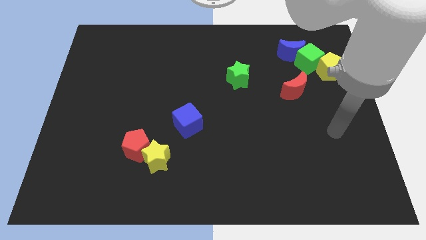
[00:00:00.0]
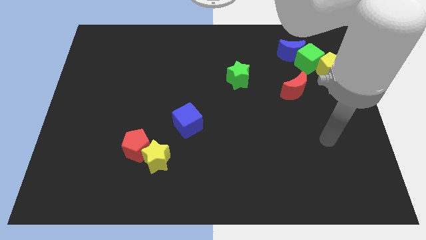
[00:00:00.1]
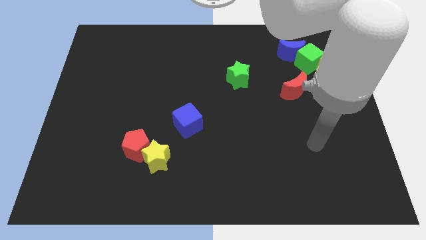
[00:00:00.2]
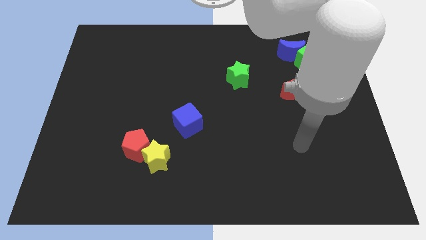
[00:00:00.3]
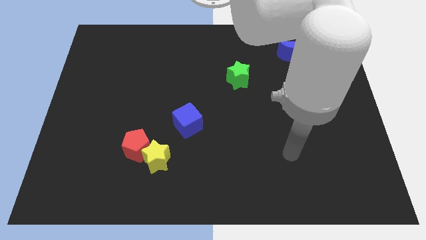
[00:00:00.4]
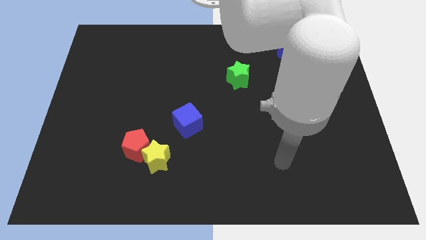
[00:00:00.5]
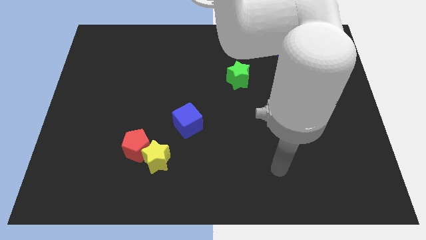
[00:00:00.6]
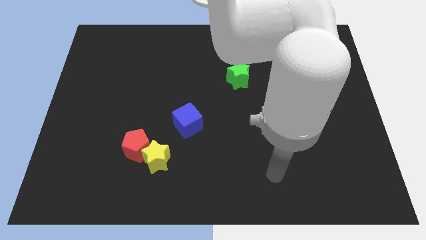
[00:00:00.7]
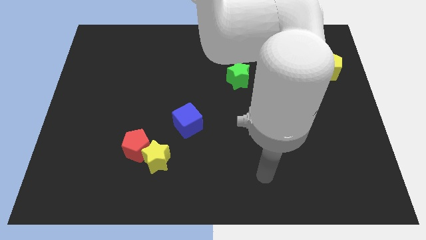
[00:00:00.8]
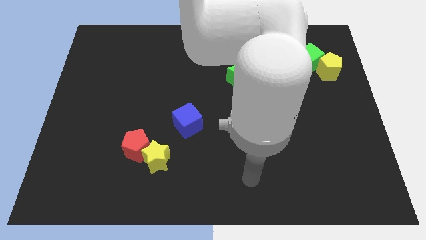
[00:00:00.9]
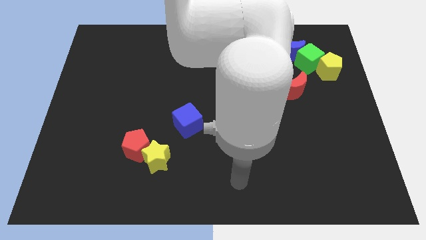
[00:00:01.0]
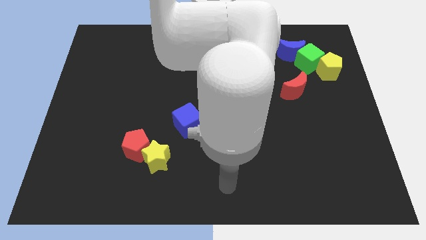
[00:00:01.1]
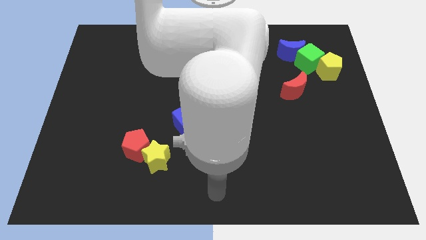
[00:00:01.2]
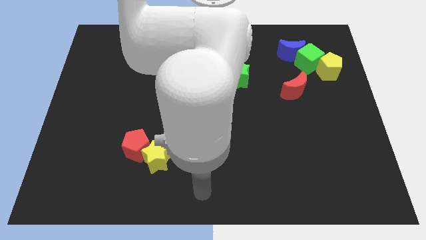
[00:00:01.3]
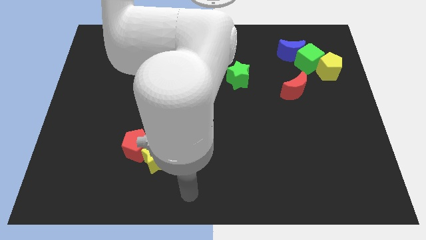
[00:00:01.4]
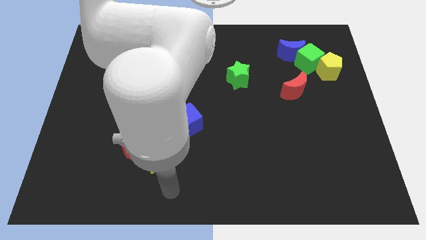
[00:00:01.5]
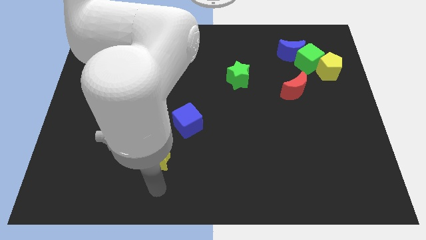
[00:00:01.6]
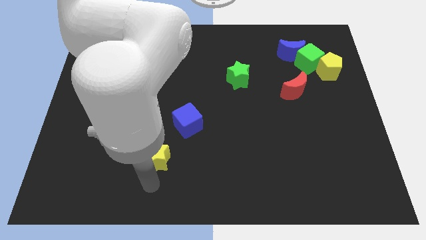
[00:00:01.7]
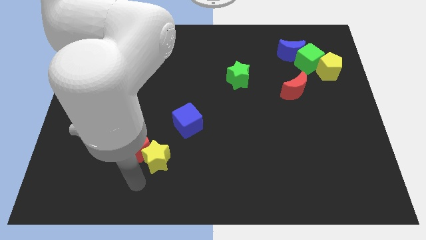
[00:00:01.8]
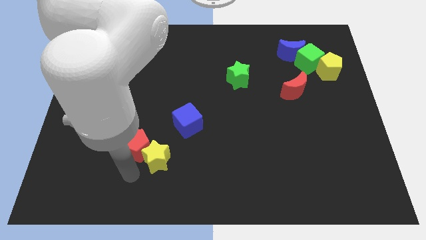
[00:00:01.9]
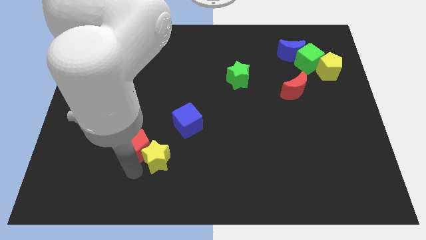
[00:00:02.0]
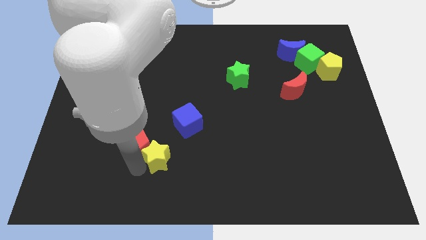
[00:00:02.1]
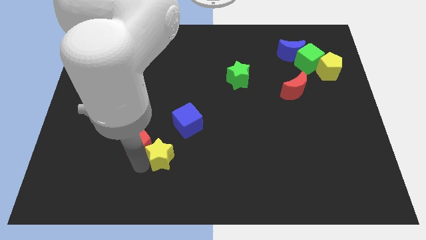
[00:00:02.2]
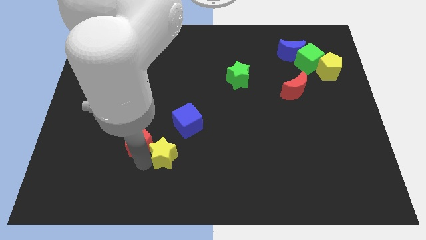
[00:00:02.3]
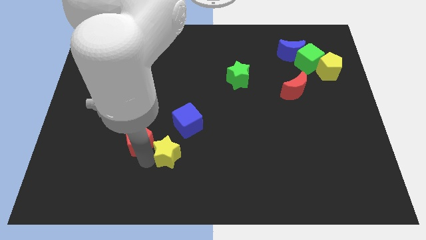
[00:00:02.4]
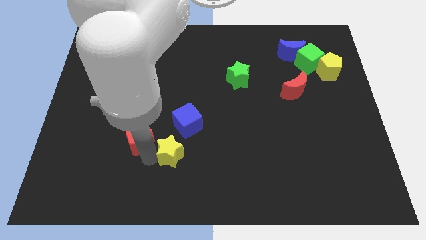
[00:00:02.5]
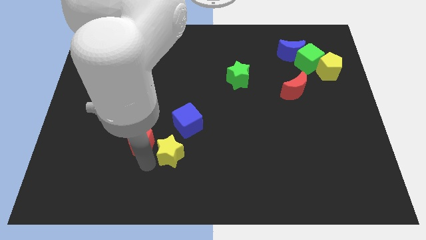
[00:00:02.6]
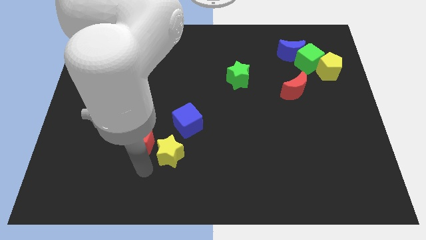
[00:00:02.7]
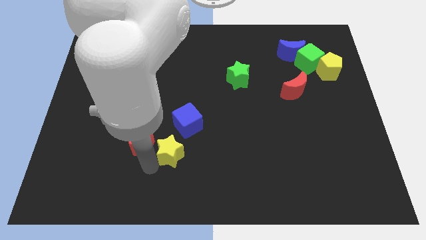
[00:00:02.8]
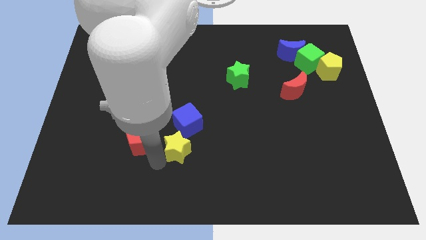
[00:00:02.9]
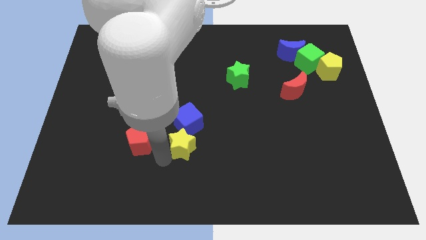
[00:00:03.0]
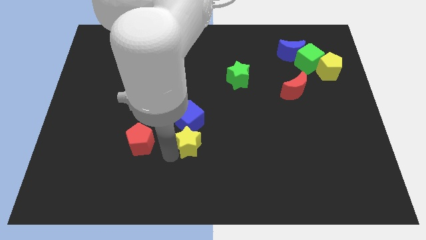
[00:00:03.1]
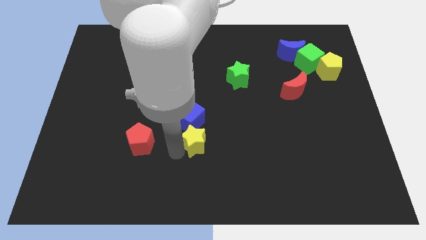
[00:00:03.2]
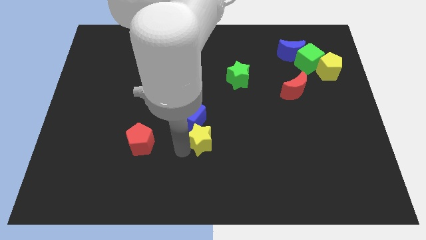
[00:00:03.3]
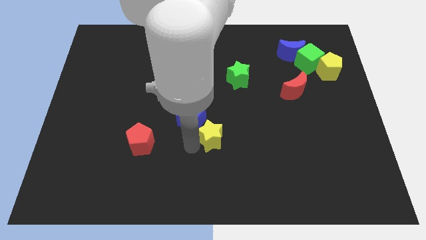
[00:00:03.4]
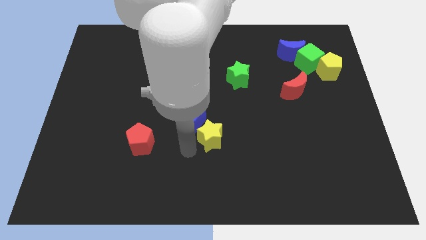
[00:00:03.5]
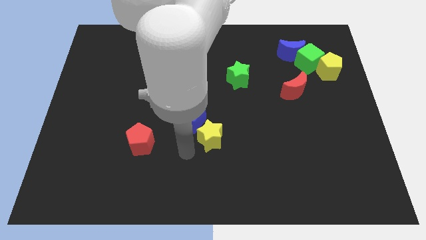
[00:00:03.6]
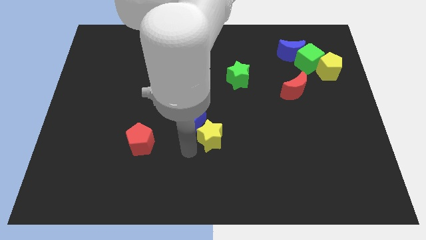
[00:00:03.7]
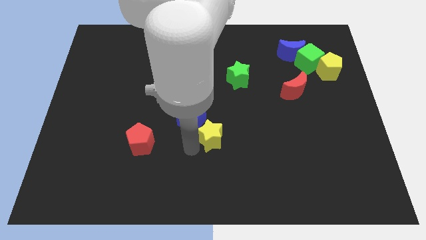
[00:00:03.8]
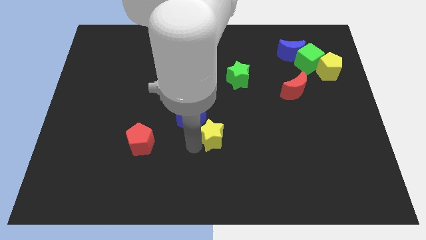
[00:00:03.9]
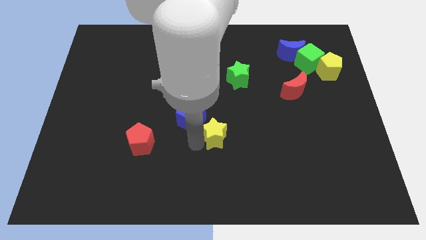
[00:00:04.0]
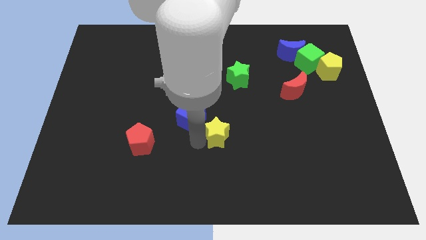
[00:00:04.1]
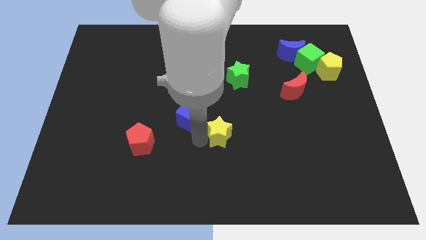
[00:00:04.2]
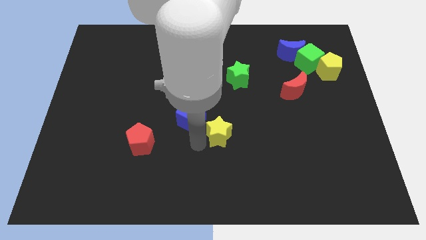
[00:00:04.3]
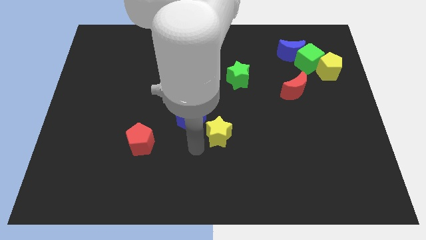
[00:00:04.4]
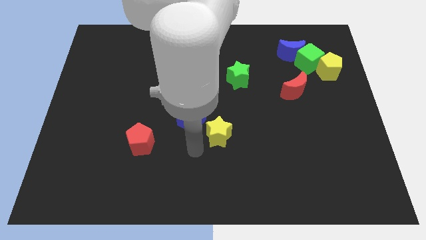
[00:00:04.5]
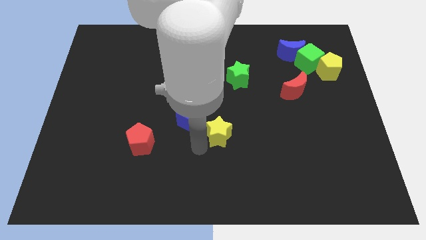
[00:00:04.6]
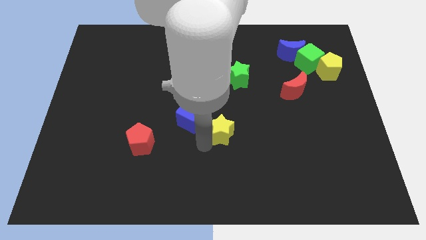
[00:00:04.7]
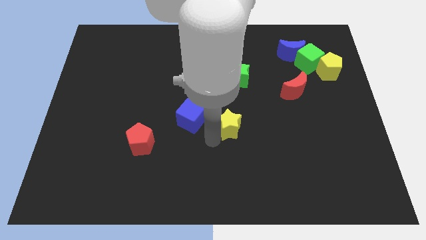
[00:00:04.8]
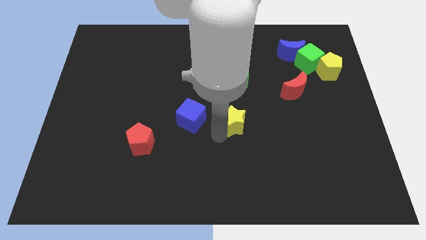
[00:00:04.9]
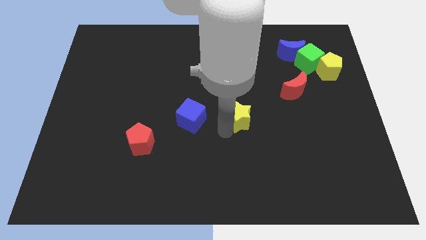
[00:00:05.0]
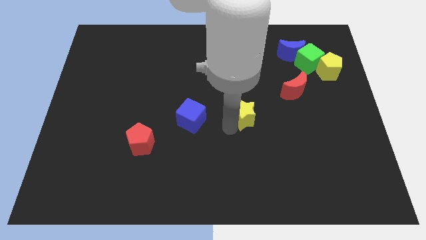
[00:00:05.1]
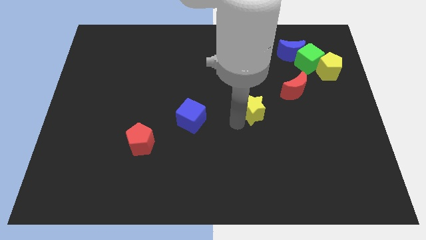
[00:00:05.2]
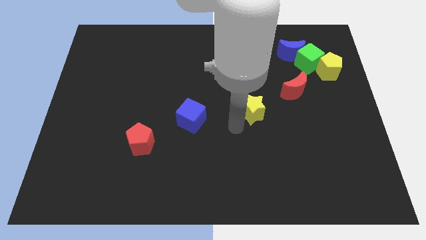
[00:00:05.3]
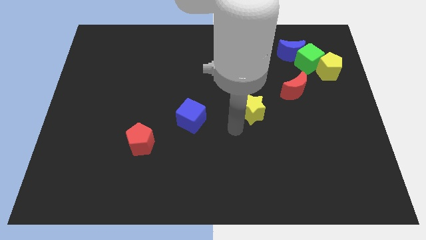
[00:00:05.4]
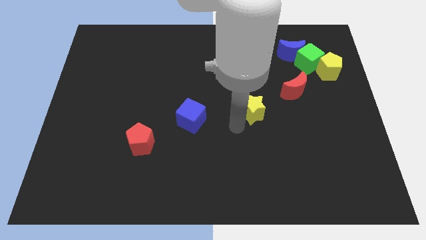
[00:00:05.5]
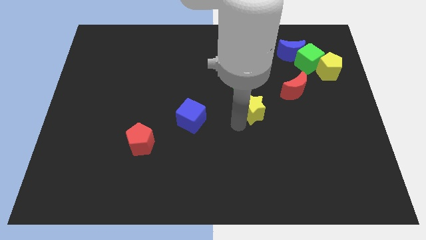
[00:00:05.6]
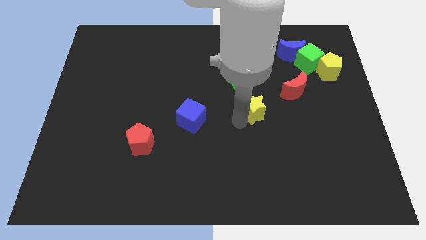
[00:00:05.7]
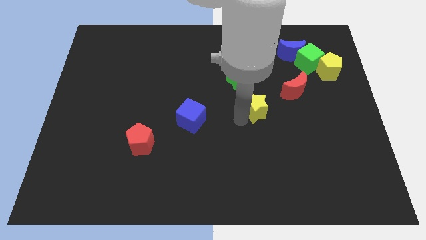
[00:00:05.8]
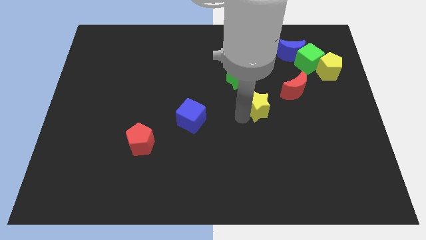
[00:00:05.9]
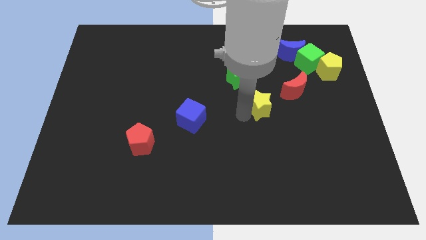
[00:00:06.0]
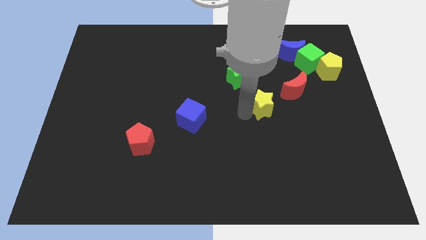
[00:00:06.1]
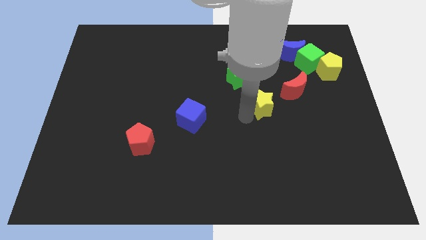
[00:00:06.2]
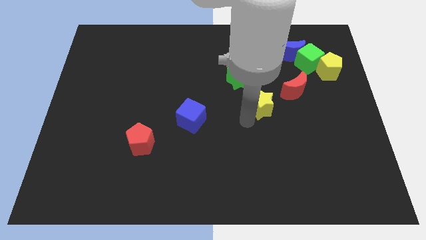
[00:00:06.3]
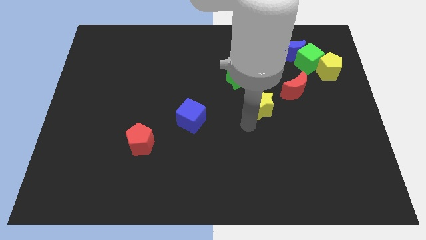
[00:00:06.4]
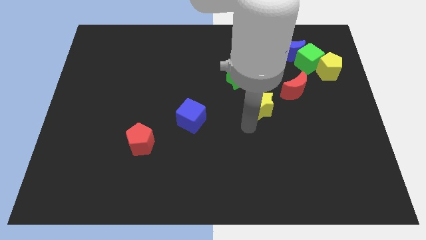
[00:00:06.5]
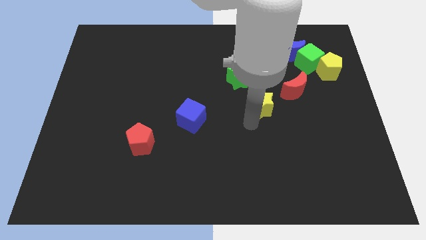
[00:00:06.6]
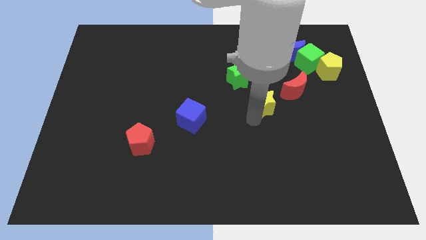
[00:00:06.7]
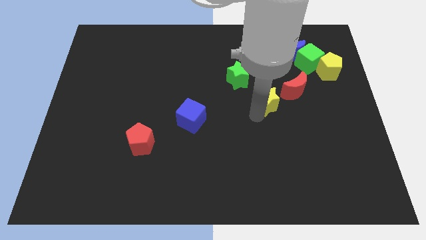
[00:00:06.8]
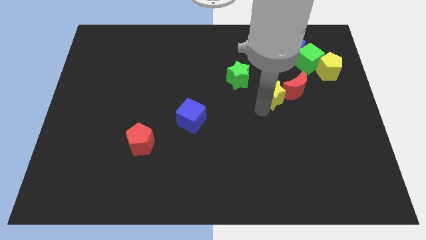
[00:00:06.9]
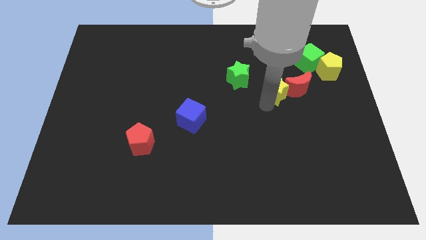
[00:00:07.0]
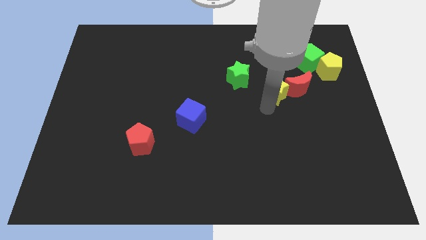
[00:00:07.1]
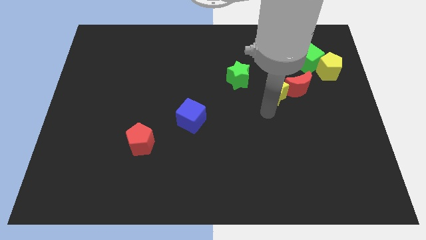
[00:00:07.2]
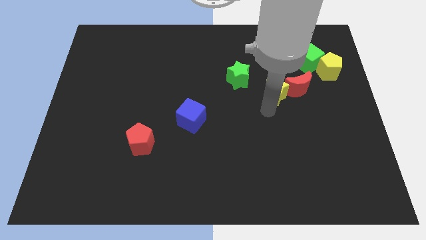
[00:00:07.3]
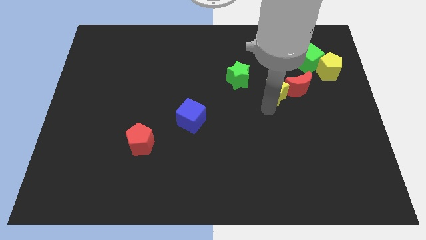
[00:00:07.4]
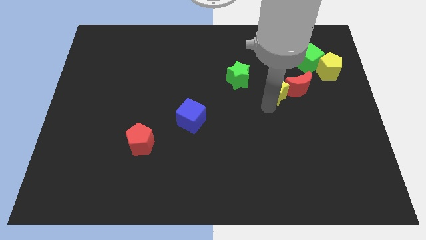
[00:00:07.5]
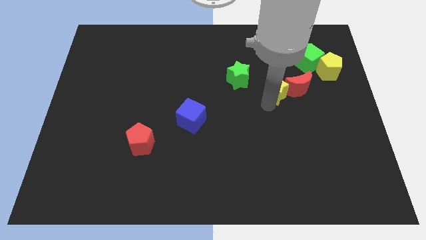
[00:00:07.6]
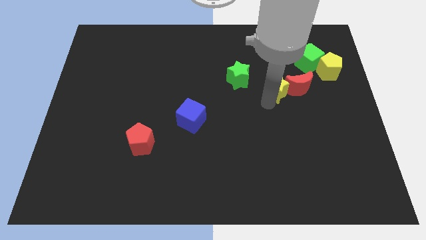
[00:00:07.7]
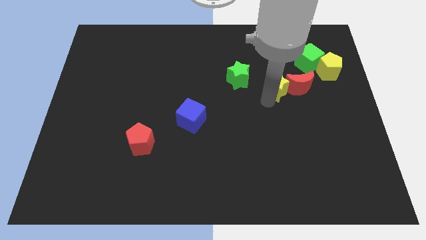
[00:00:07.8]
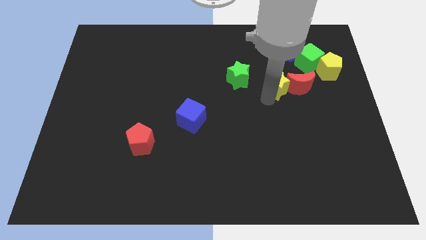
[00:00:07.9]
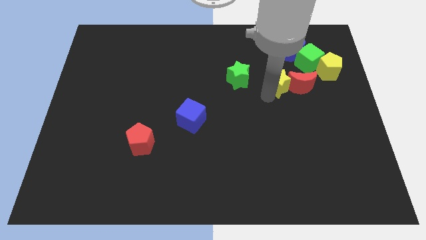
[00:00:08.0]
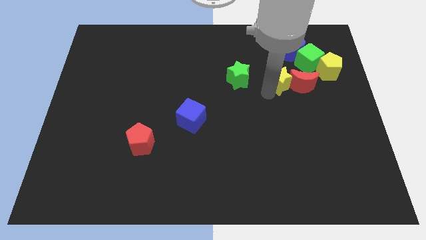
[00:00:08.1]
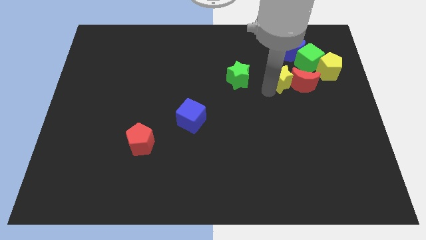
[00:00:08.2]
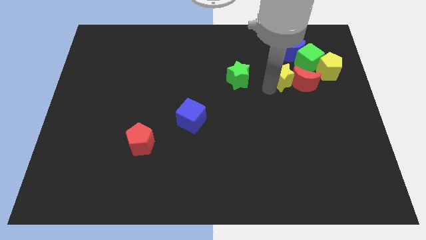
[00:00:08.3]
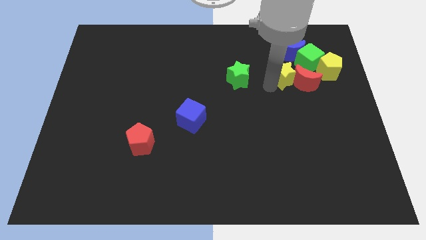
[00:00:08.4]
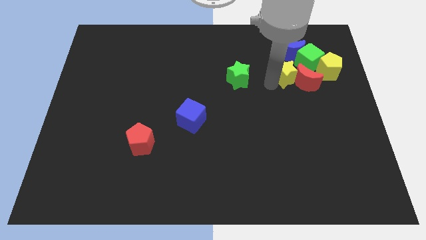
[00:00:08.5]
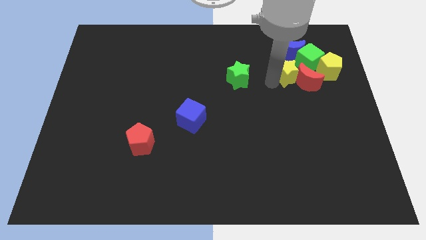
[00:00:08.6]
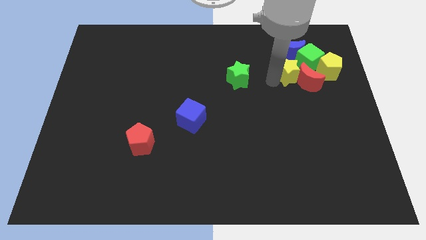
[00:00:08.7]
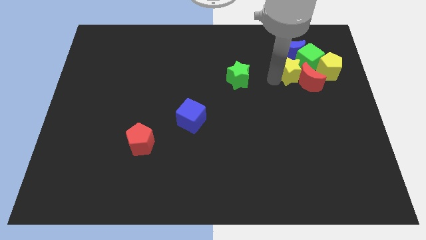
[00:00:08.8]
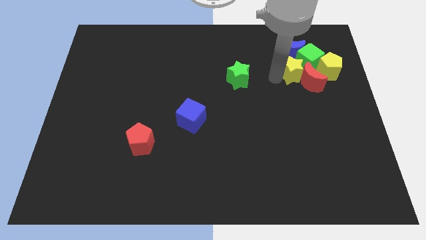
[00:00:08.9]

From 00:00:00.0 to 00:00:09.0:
push the yellow star close to the green cube
